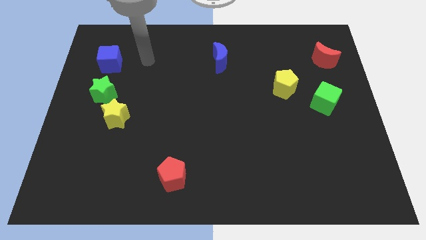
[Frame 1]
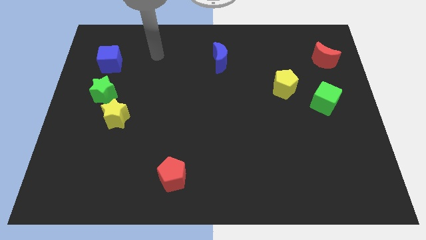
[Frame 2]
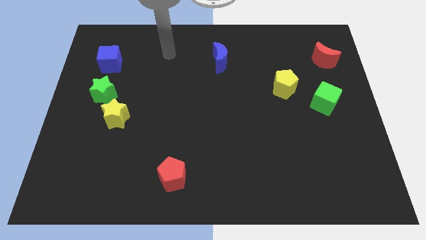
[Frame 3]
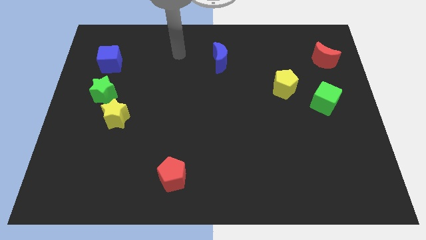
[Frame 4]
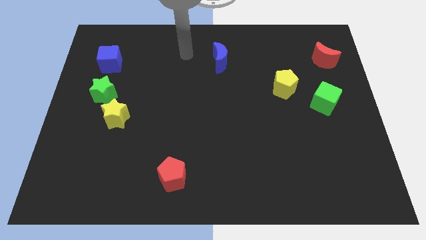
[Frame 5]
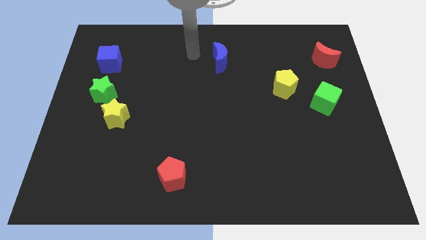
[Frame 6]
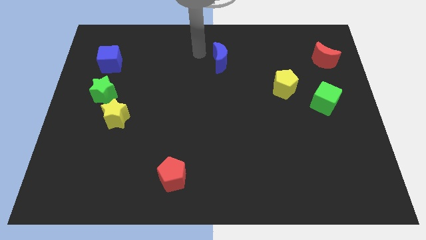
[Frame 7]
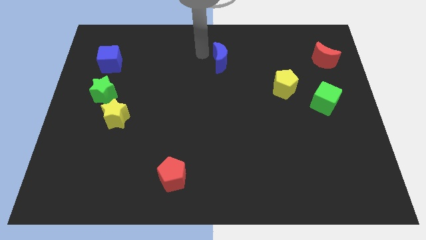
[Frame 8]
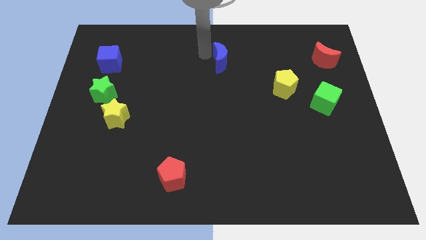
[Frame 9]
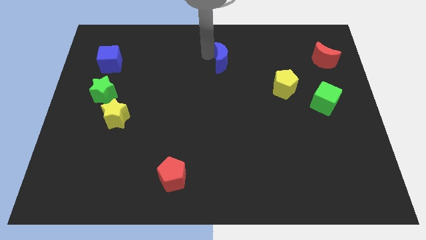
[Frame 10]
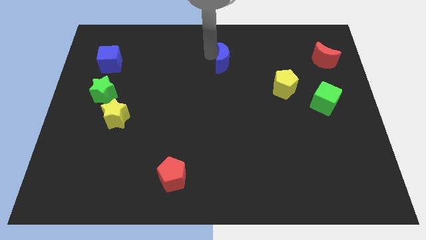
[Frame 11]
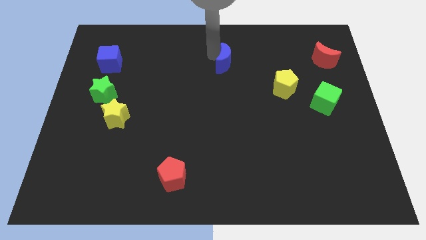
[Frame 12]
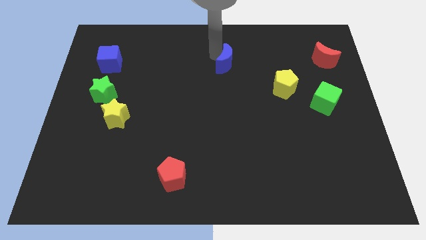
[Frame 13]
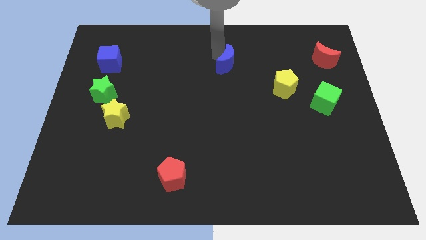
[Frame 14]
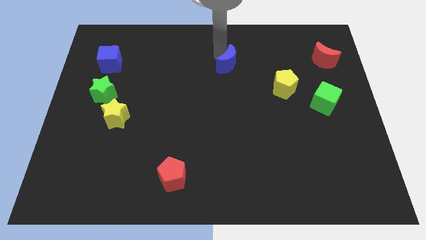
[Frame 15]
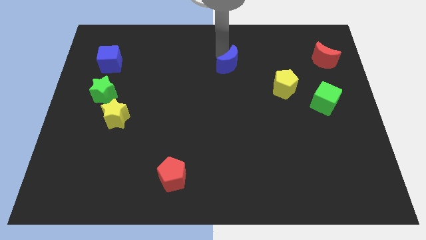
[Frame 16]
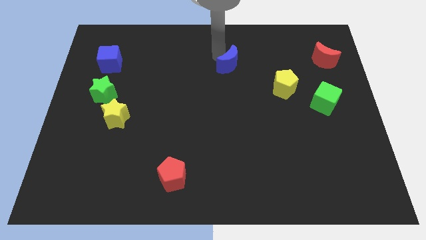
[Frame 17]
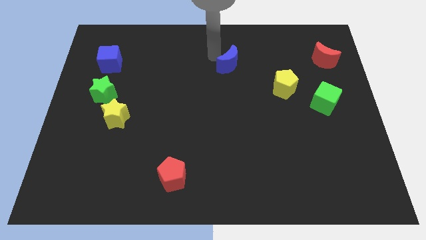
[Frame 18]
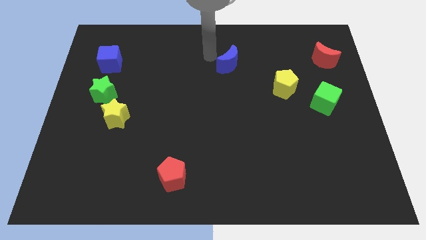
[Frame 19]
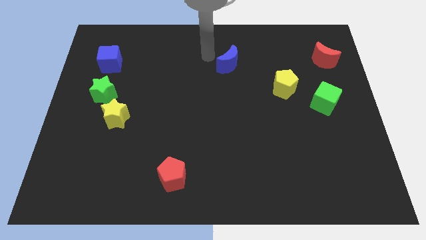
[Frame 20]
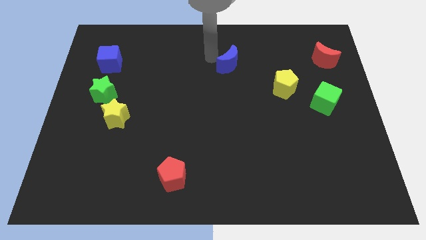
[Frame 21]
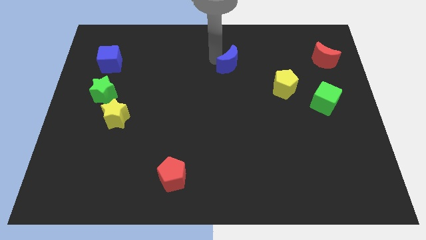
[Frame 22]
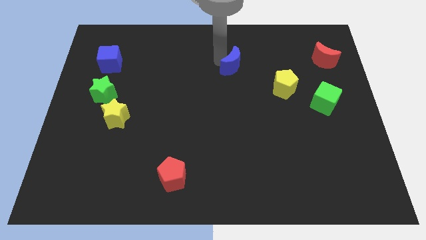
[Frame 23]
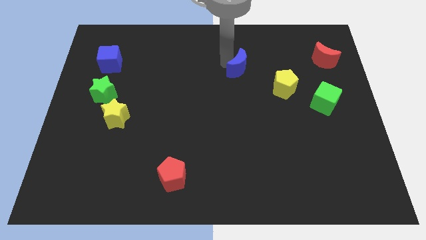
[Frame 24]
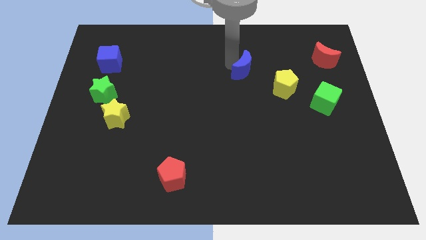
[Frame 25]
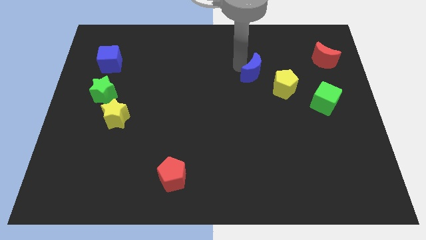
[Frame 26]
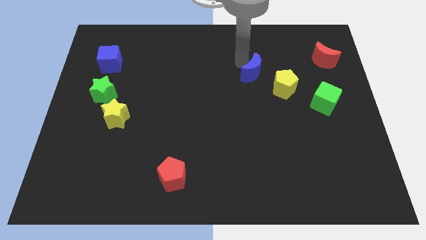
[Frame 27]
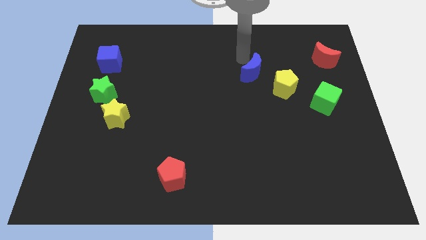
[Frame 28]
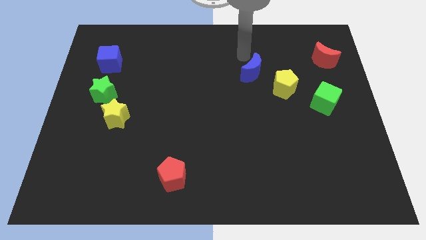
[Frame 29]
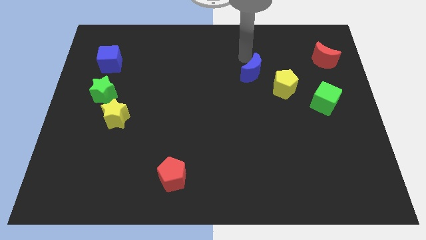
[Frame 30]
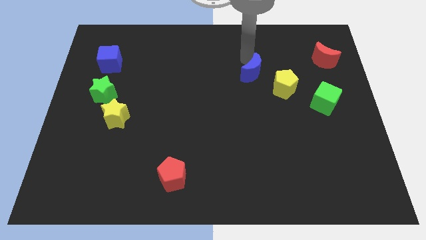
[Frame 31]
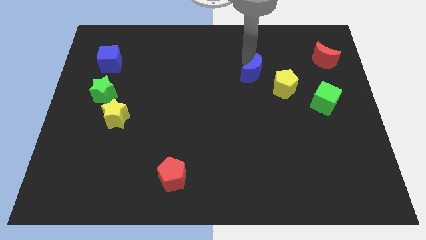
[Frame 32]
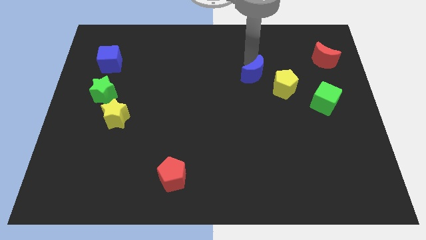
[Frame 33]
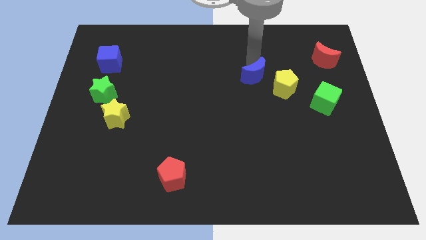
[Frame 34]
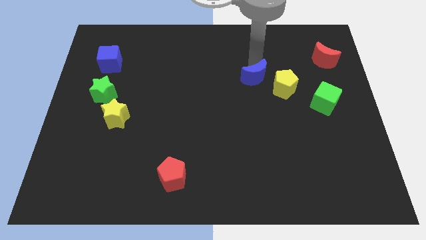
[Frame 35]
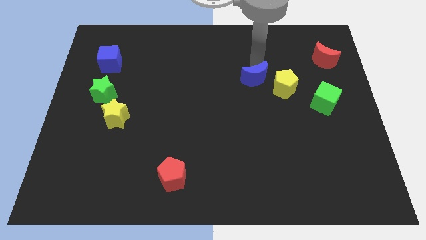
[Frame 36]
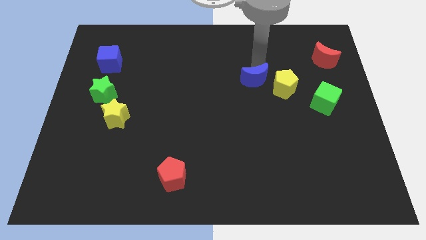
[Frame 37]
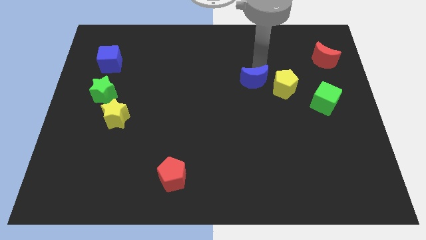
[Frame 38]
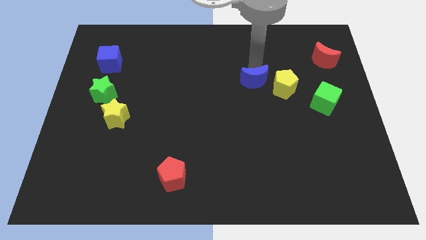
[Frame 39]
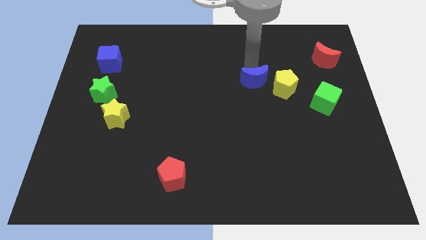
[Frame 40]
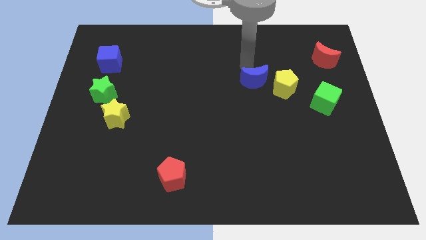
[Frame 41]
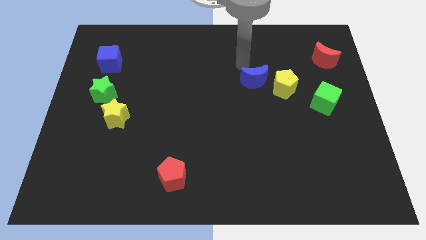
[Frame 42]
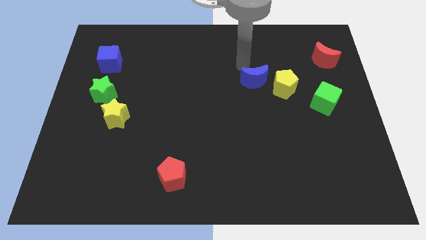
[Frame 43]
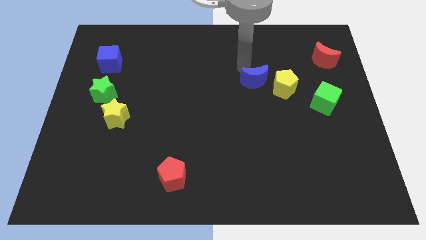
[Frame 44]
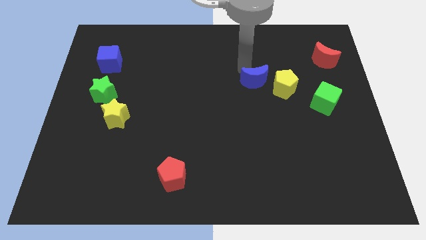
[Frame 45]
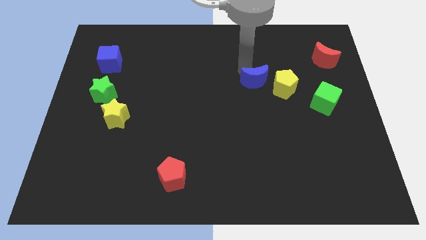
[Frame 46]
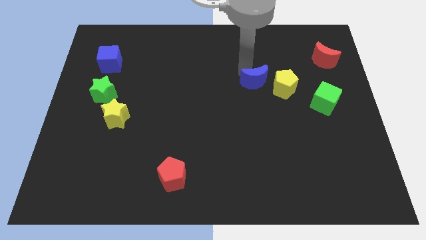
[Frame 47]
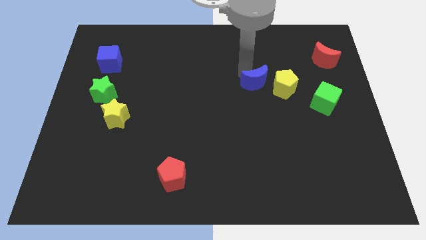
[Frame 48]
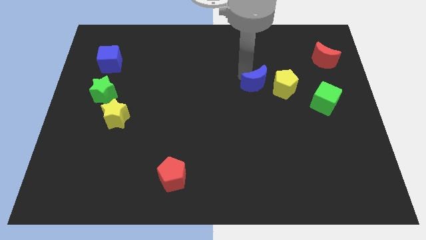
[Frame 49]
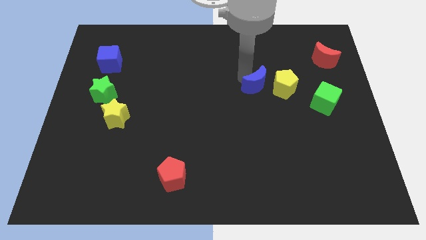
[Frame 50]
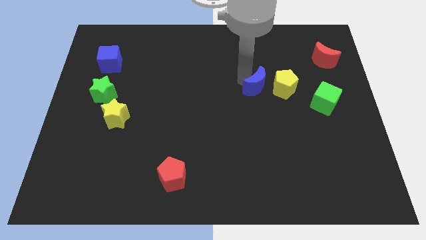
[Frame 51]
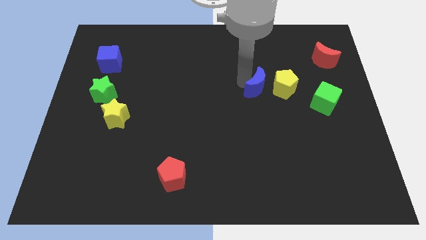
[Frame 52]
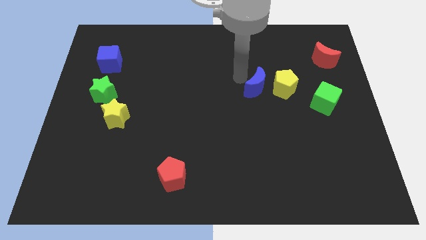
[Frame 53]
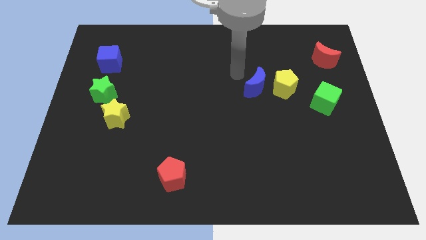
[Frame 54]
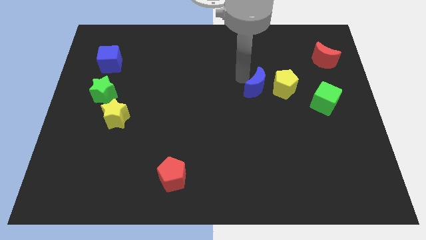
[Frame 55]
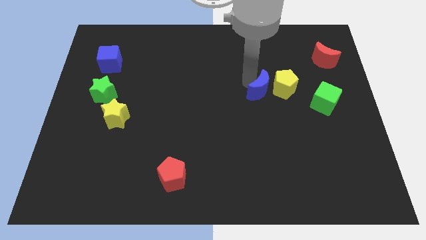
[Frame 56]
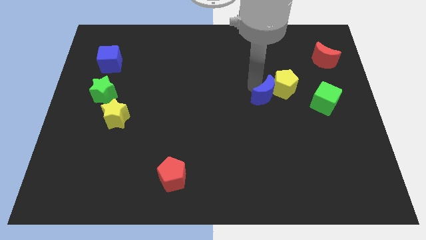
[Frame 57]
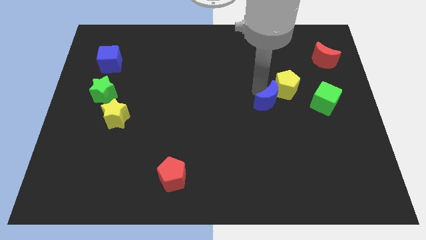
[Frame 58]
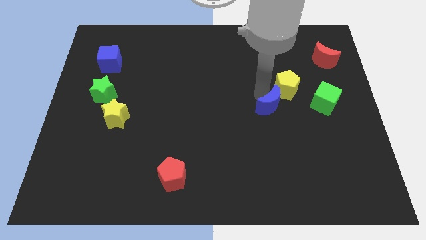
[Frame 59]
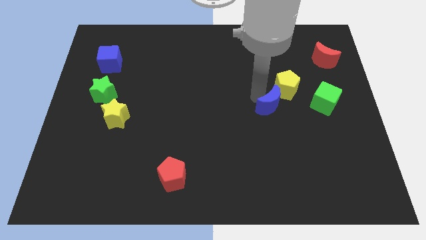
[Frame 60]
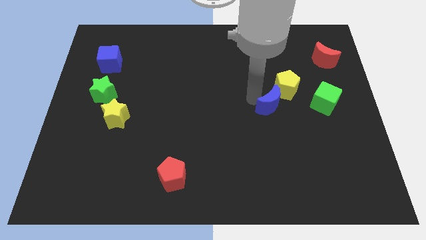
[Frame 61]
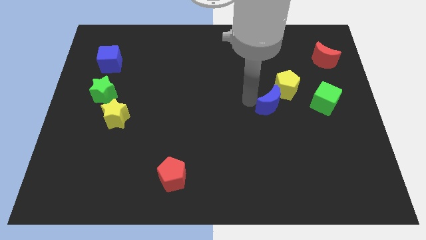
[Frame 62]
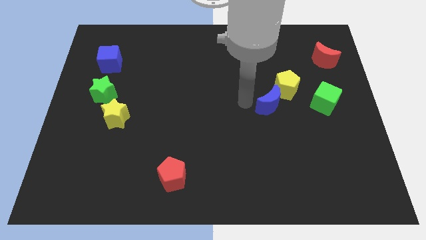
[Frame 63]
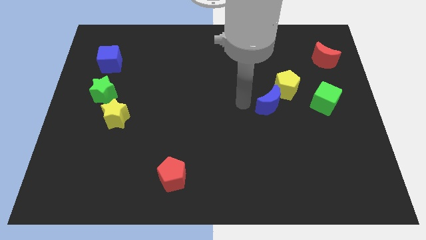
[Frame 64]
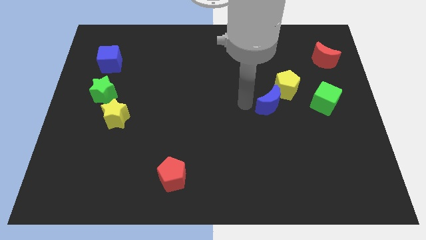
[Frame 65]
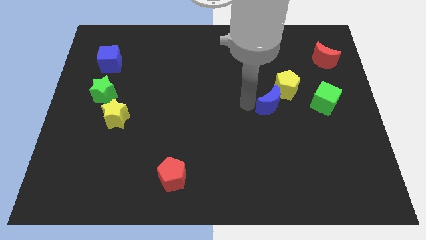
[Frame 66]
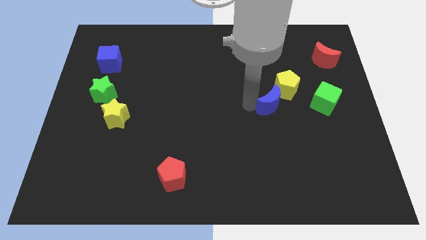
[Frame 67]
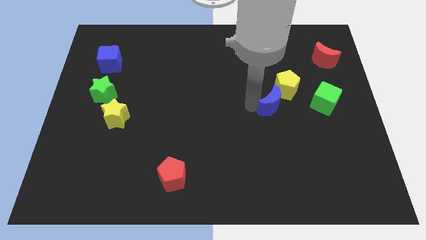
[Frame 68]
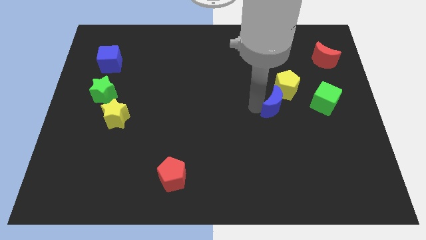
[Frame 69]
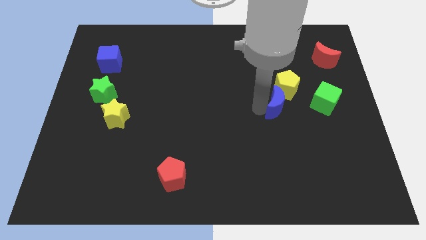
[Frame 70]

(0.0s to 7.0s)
push the blue moon down and then right

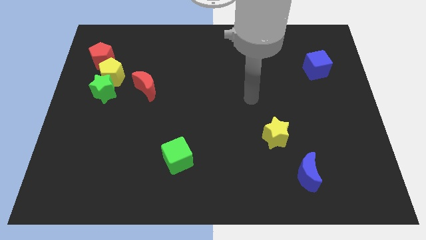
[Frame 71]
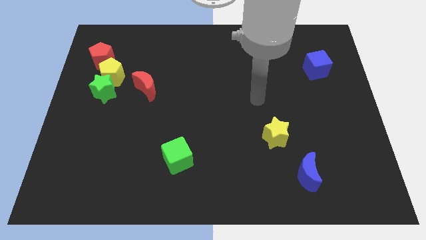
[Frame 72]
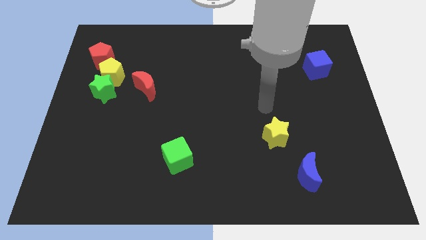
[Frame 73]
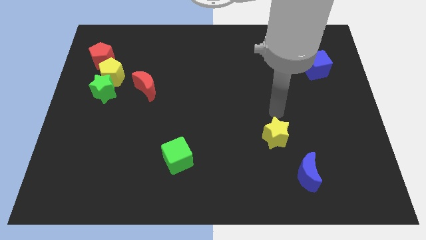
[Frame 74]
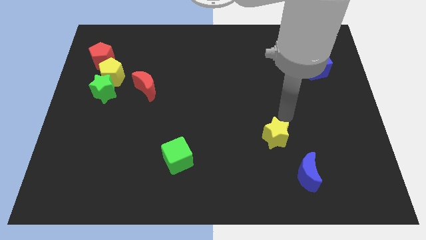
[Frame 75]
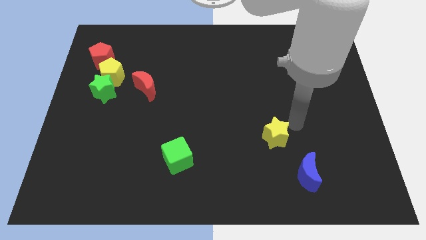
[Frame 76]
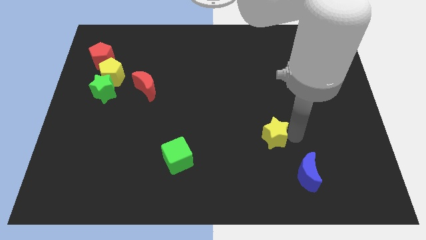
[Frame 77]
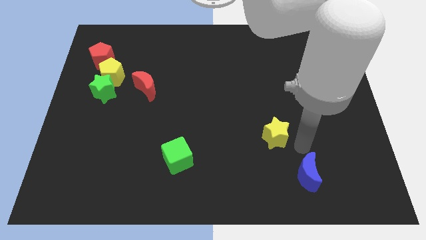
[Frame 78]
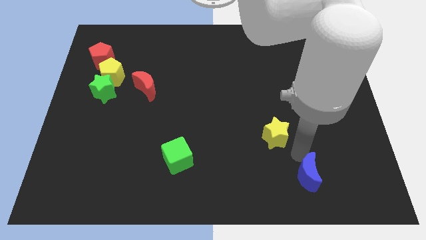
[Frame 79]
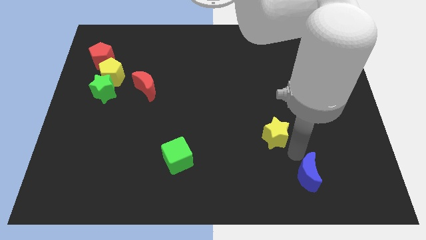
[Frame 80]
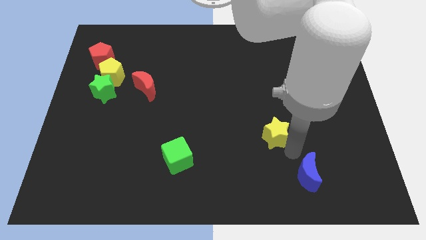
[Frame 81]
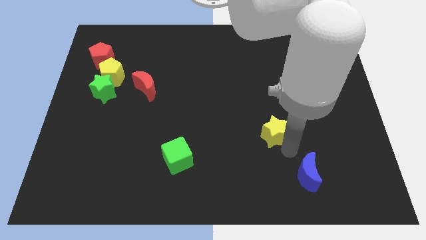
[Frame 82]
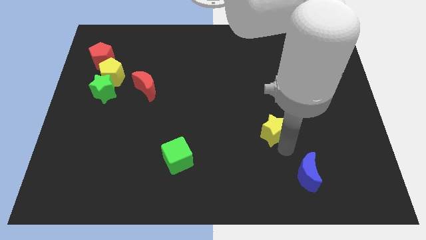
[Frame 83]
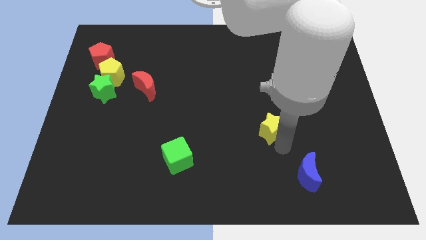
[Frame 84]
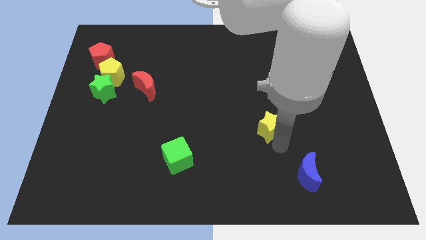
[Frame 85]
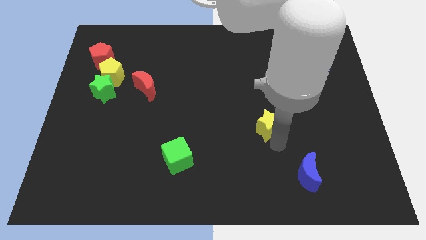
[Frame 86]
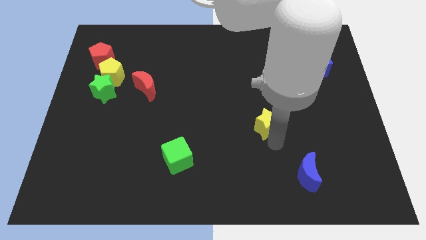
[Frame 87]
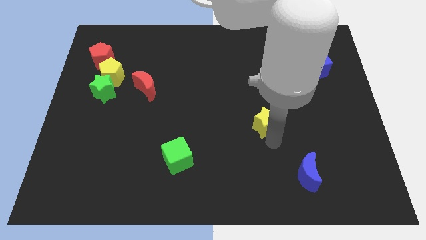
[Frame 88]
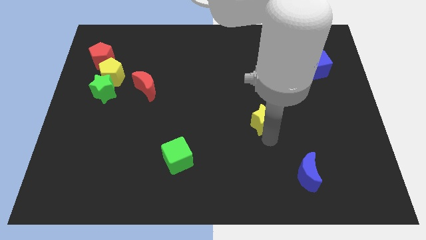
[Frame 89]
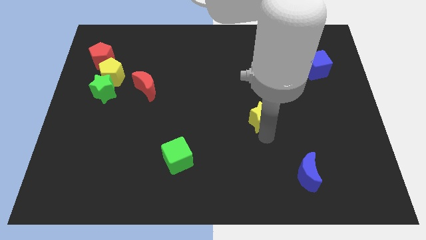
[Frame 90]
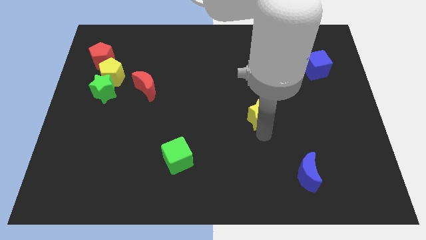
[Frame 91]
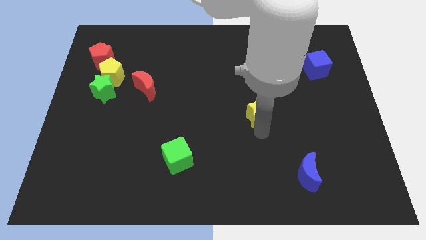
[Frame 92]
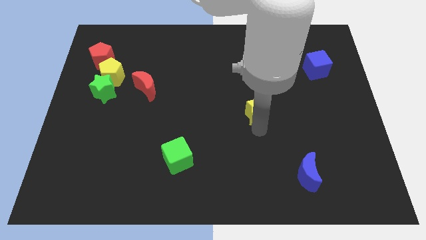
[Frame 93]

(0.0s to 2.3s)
slightly push the yellow star up and then to the left
